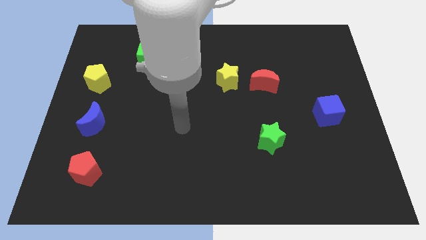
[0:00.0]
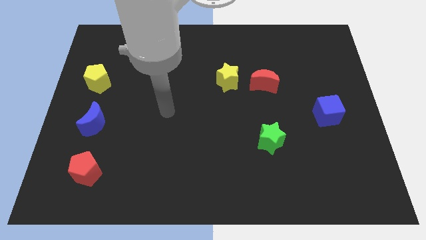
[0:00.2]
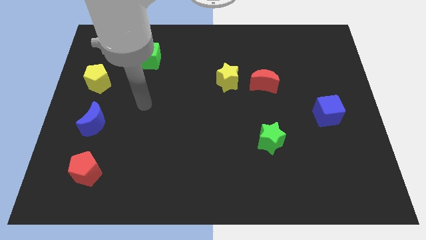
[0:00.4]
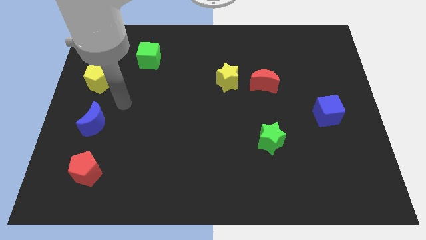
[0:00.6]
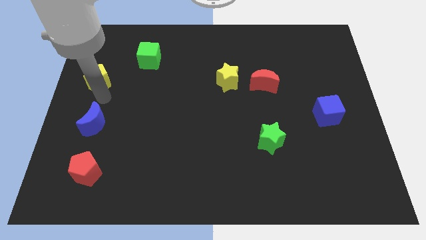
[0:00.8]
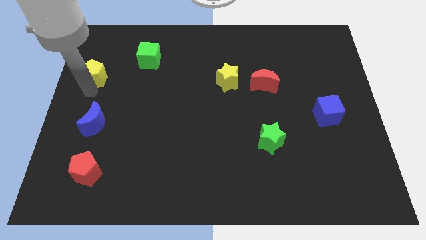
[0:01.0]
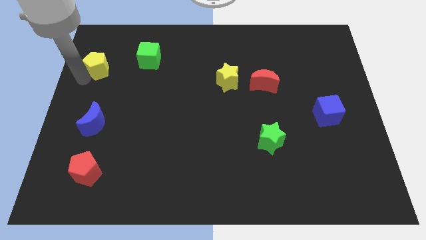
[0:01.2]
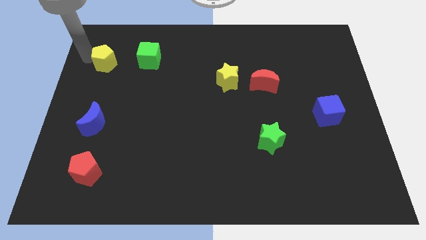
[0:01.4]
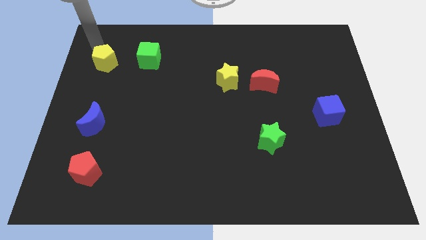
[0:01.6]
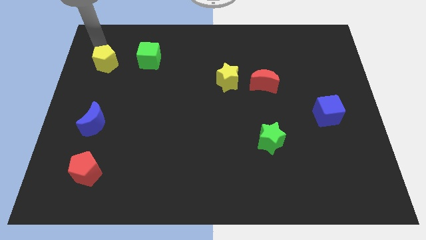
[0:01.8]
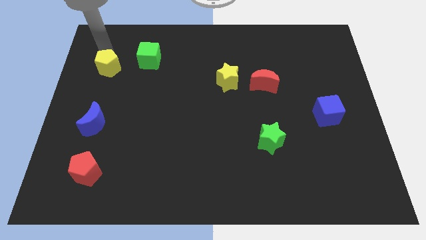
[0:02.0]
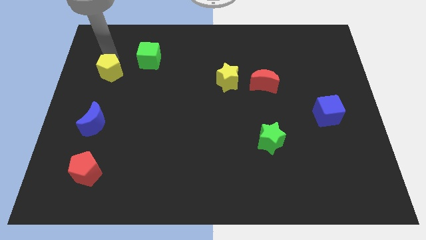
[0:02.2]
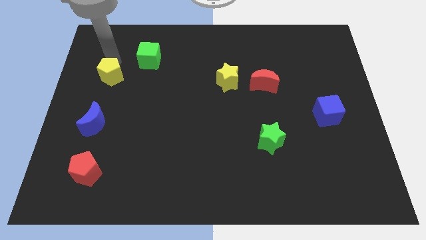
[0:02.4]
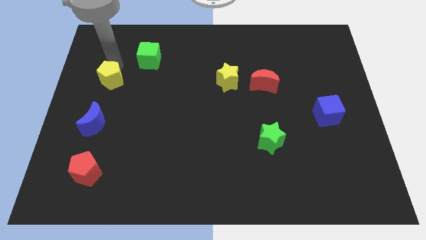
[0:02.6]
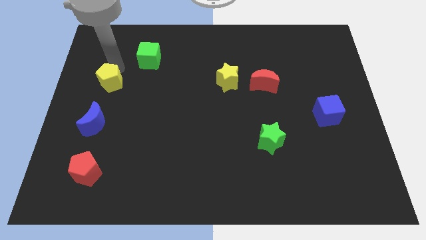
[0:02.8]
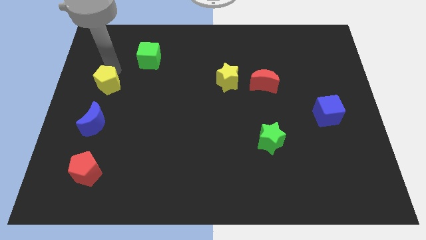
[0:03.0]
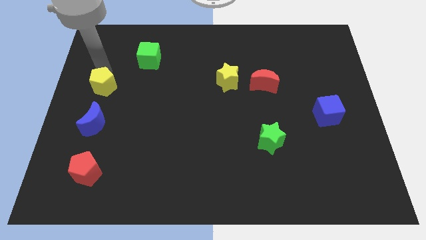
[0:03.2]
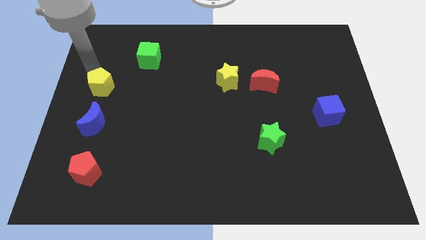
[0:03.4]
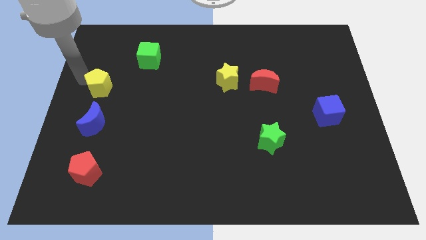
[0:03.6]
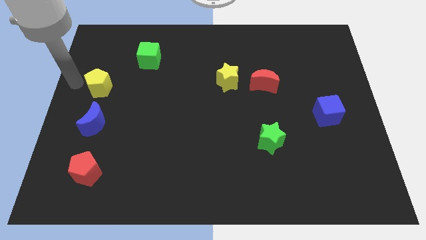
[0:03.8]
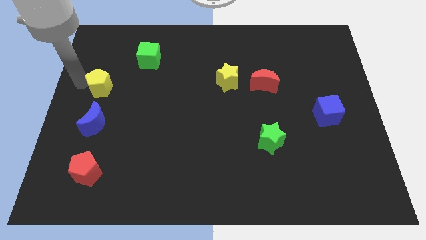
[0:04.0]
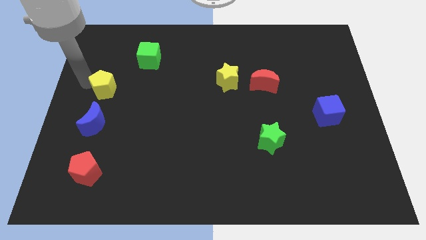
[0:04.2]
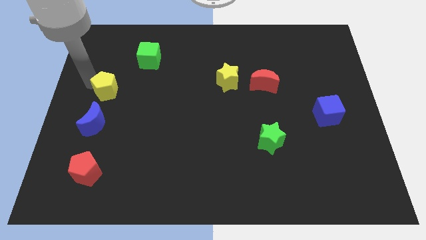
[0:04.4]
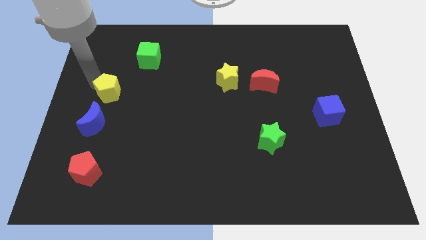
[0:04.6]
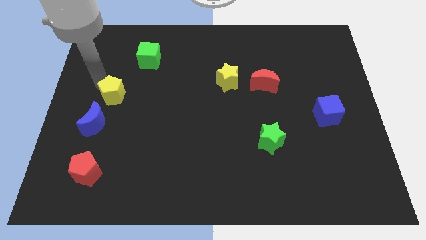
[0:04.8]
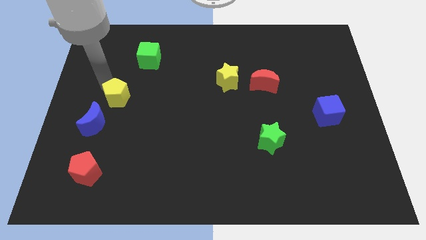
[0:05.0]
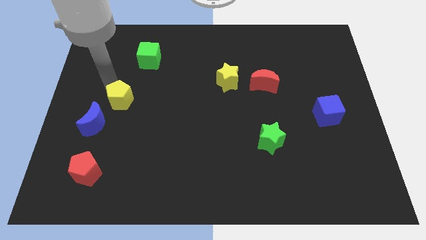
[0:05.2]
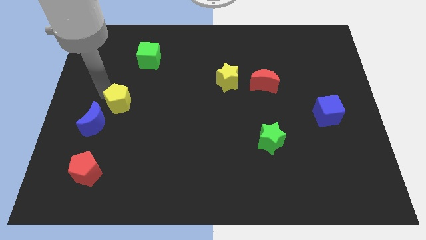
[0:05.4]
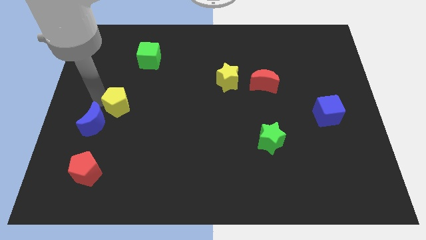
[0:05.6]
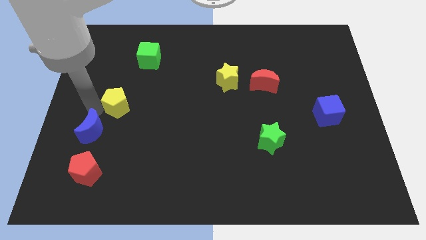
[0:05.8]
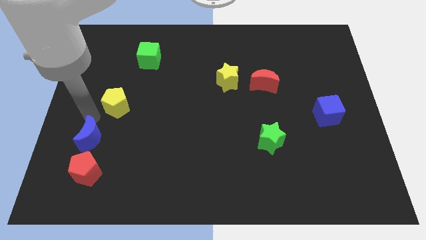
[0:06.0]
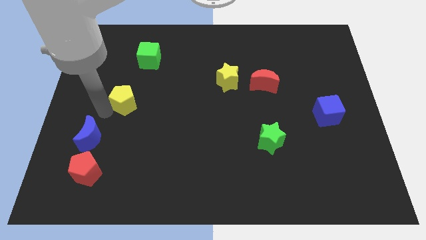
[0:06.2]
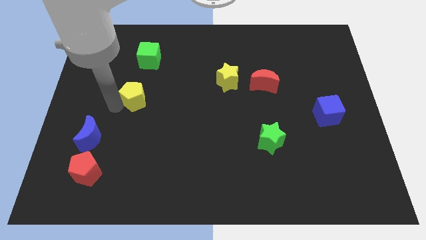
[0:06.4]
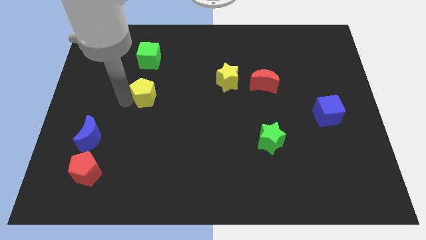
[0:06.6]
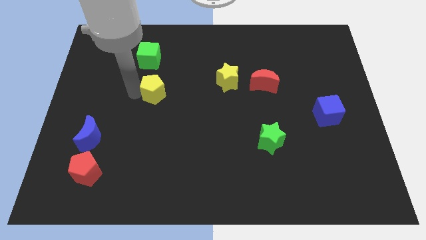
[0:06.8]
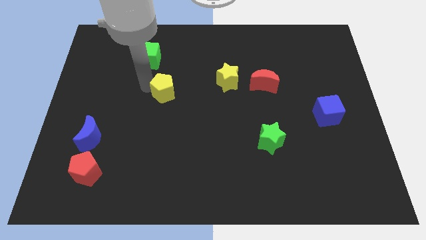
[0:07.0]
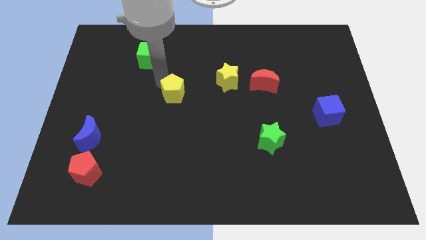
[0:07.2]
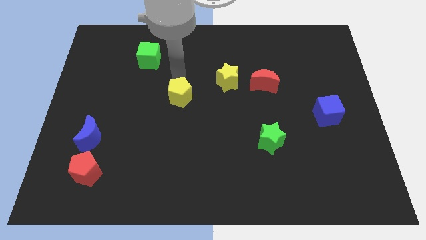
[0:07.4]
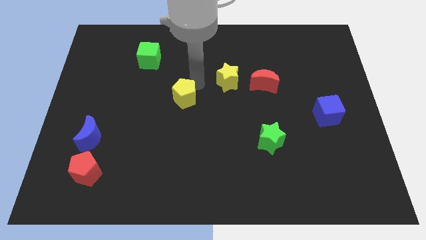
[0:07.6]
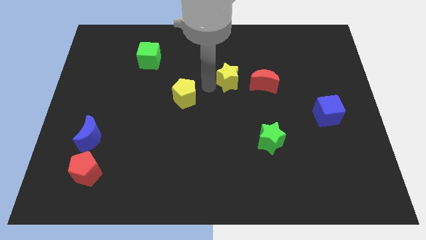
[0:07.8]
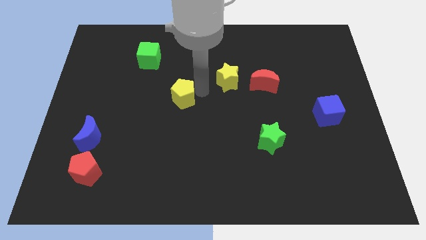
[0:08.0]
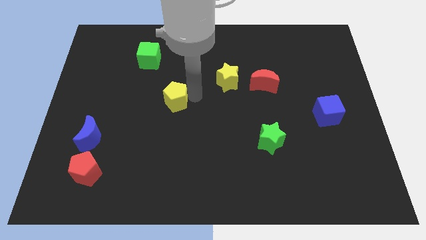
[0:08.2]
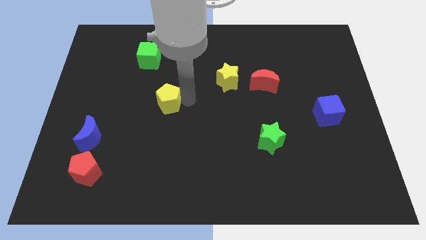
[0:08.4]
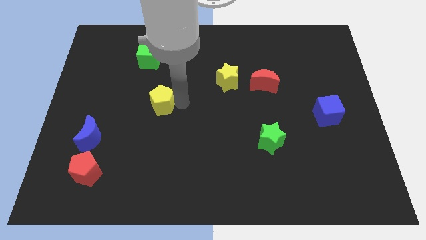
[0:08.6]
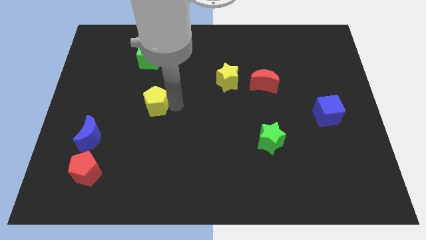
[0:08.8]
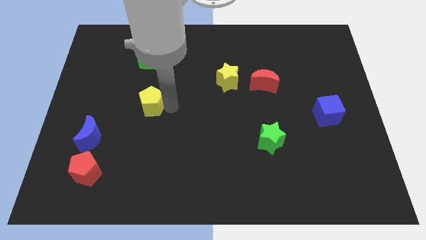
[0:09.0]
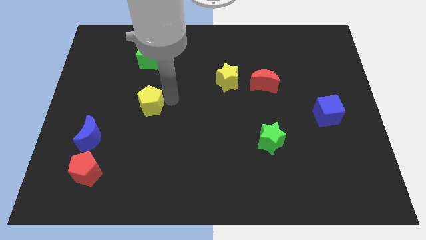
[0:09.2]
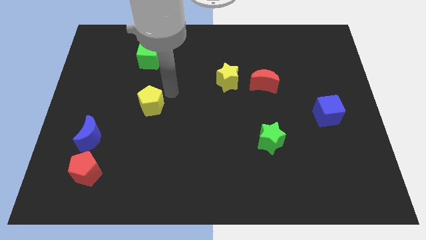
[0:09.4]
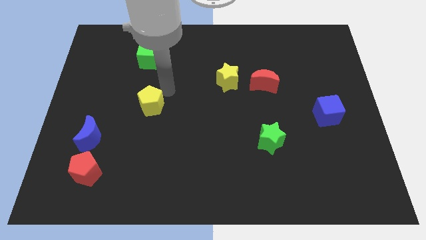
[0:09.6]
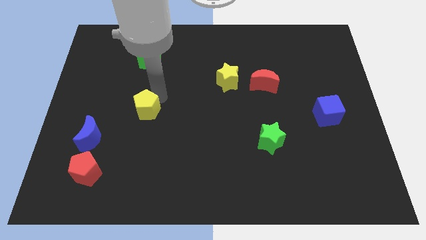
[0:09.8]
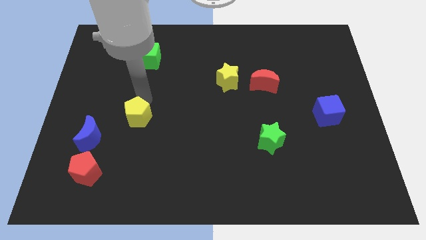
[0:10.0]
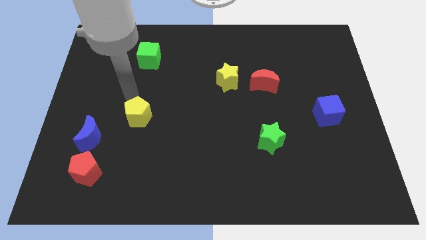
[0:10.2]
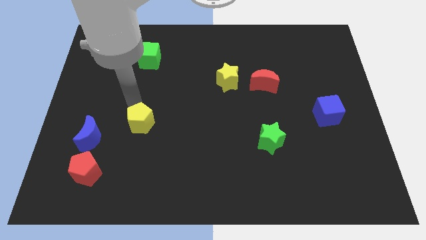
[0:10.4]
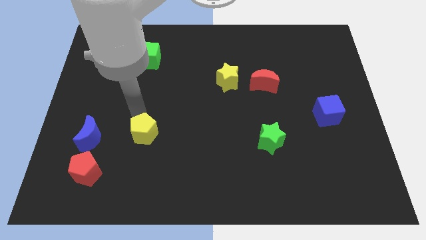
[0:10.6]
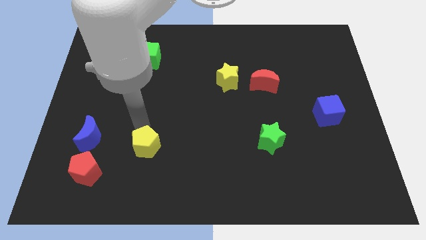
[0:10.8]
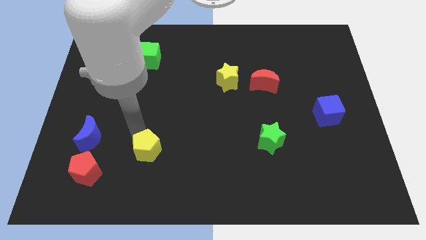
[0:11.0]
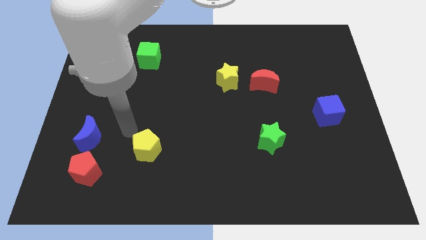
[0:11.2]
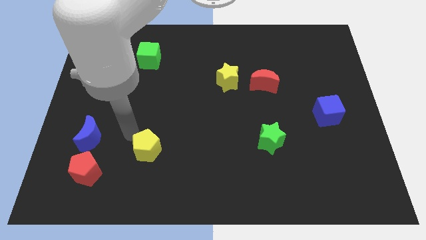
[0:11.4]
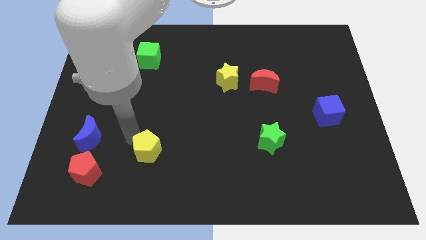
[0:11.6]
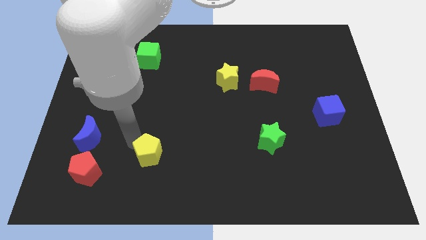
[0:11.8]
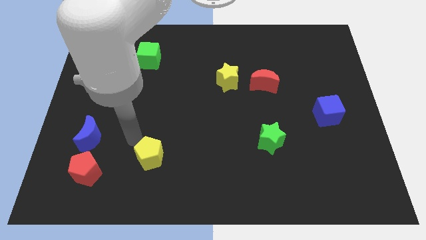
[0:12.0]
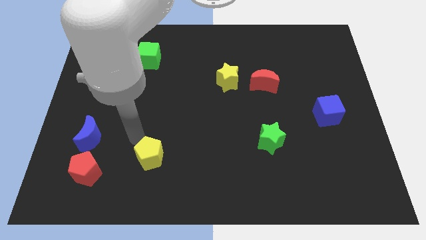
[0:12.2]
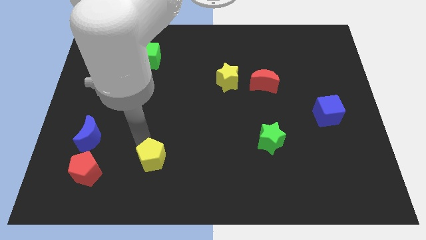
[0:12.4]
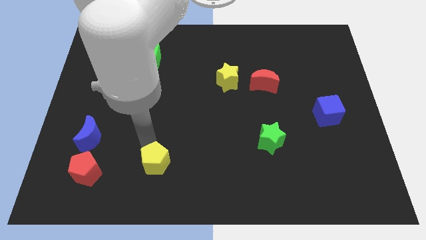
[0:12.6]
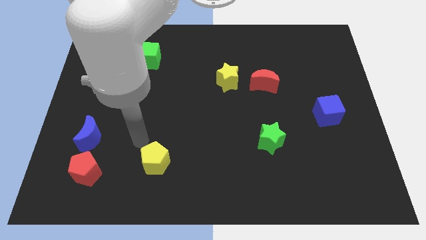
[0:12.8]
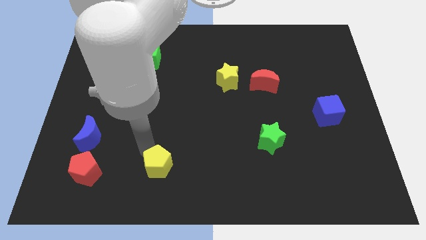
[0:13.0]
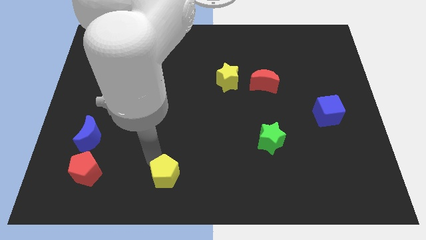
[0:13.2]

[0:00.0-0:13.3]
move the yellow pentagon to the bottom side

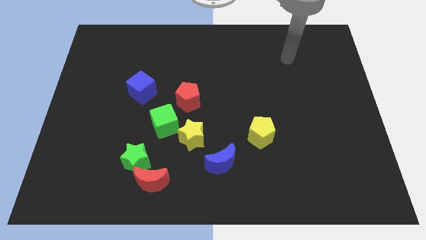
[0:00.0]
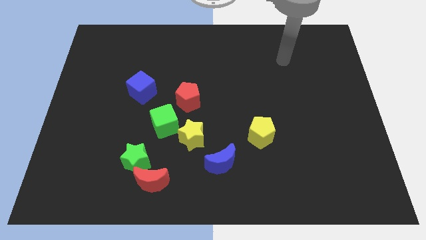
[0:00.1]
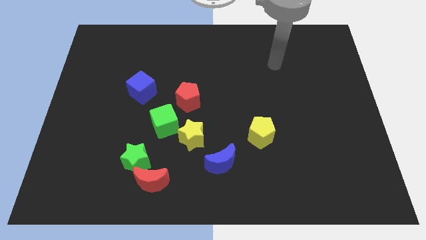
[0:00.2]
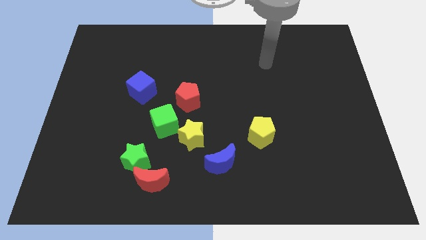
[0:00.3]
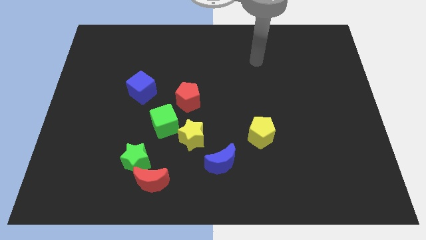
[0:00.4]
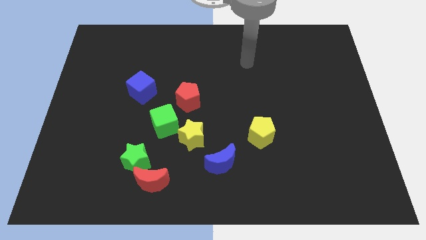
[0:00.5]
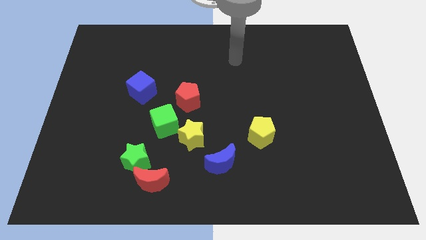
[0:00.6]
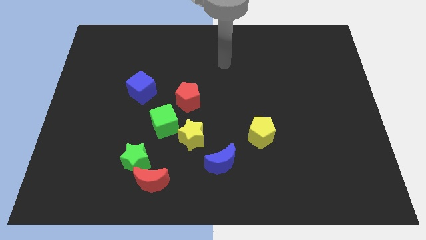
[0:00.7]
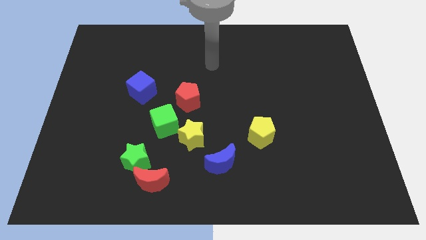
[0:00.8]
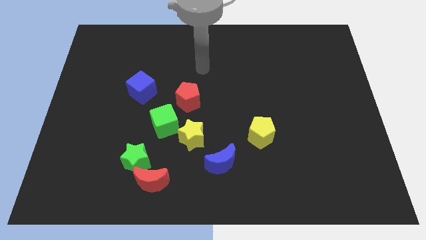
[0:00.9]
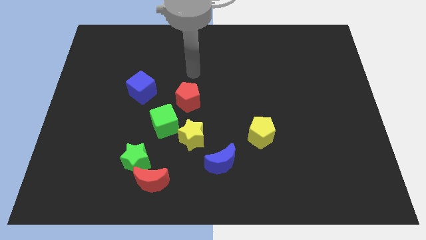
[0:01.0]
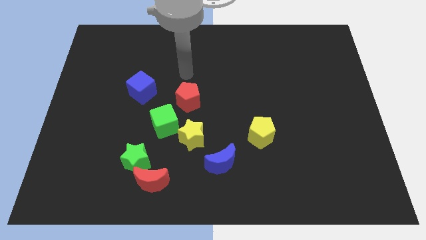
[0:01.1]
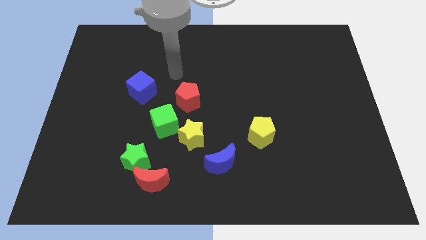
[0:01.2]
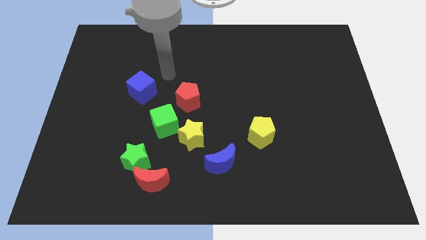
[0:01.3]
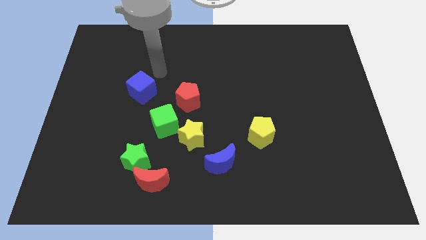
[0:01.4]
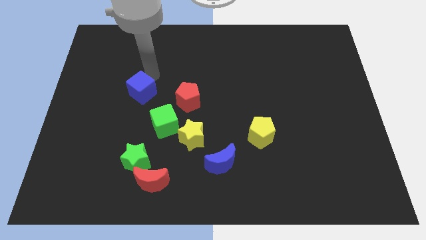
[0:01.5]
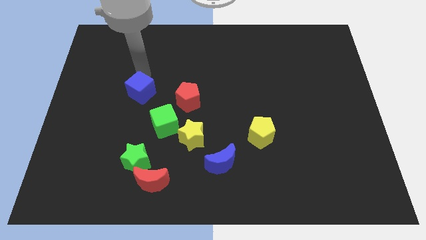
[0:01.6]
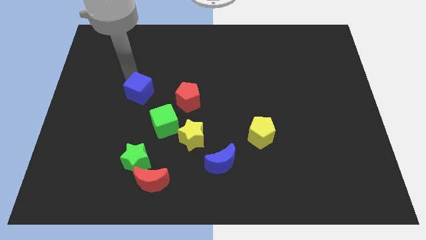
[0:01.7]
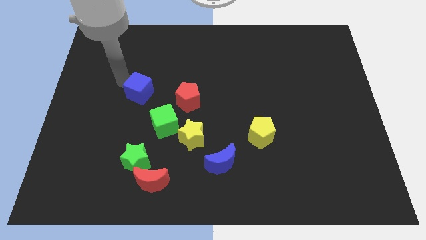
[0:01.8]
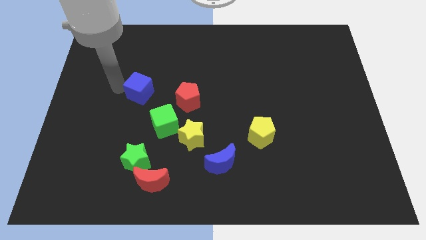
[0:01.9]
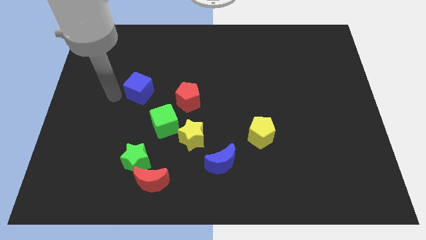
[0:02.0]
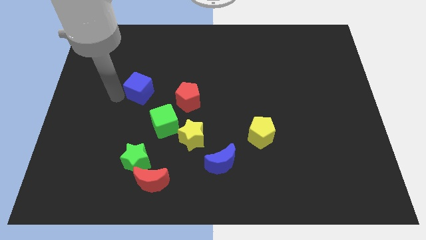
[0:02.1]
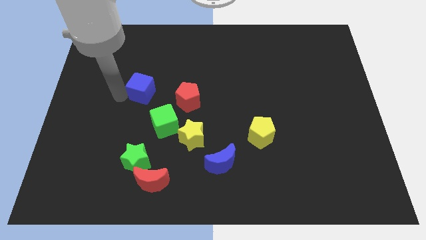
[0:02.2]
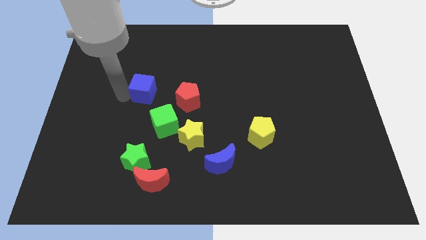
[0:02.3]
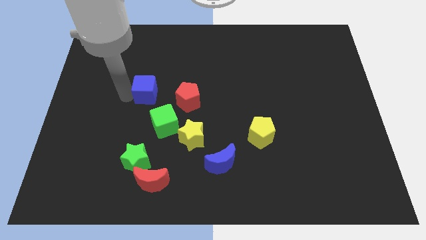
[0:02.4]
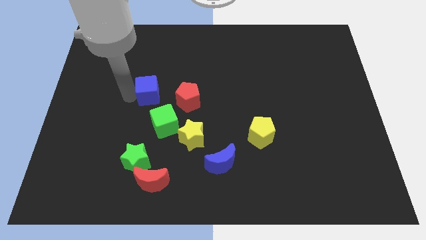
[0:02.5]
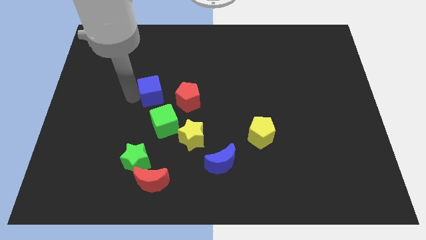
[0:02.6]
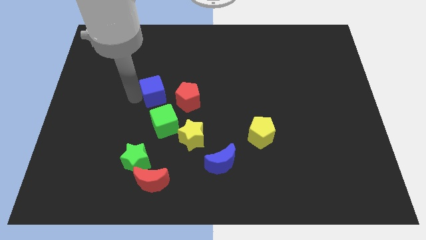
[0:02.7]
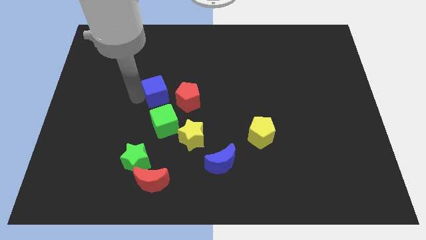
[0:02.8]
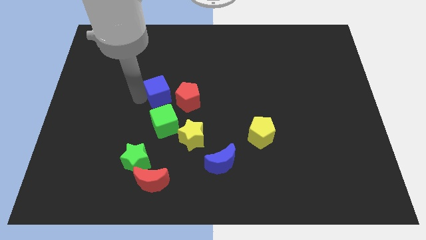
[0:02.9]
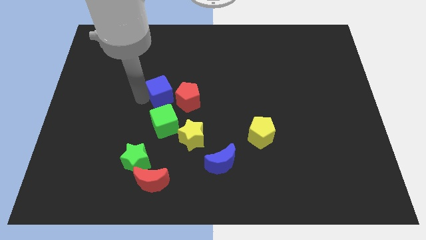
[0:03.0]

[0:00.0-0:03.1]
slide the blue cube to the center
